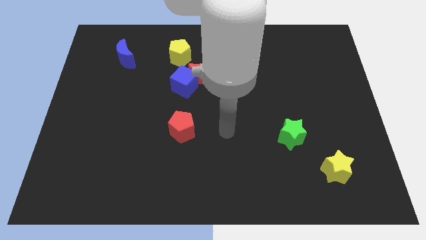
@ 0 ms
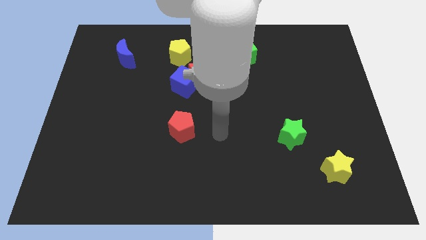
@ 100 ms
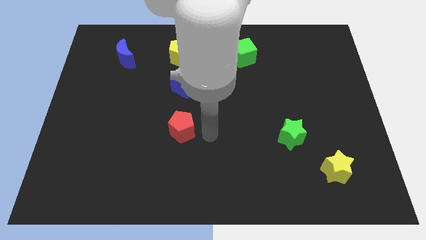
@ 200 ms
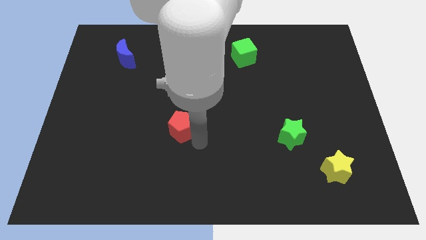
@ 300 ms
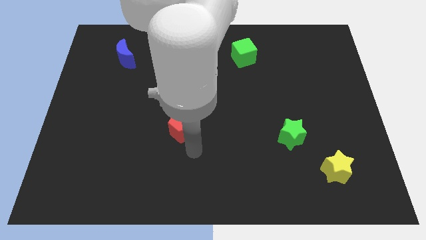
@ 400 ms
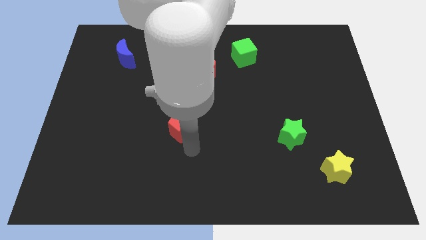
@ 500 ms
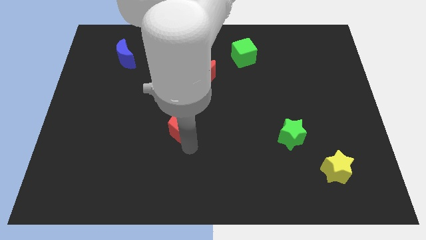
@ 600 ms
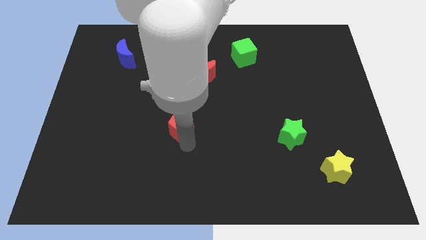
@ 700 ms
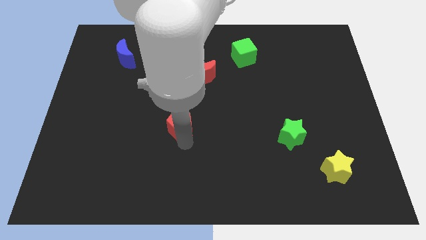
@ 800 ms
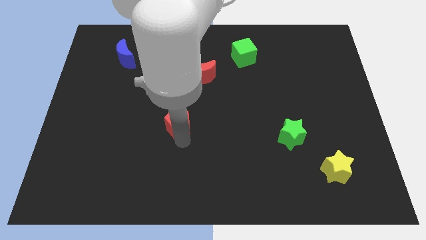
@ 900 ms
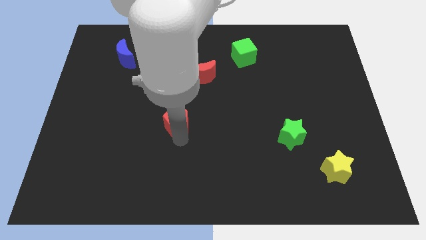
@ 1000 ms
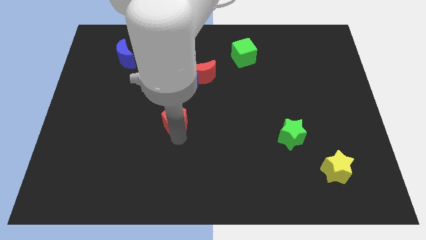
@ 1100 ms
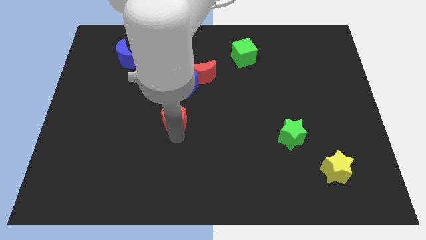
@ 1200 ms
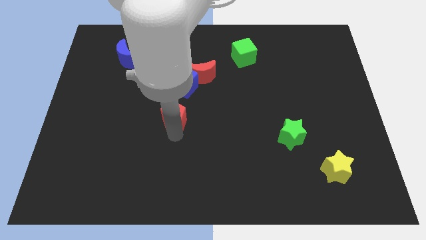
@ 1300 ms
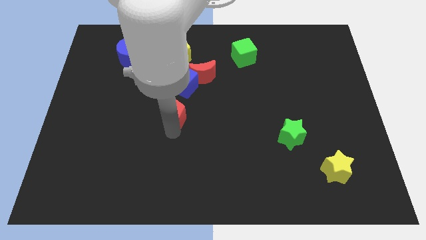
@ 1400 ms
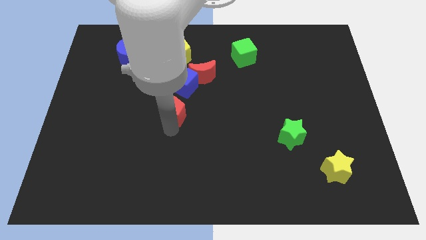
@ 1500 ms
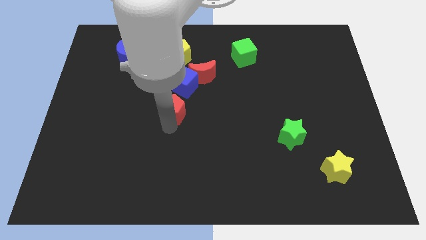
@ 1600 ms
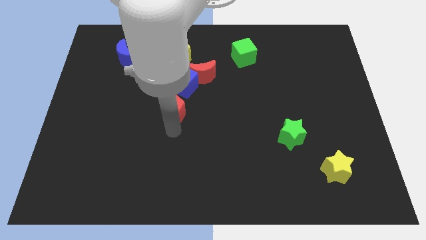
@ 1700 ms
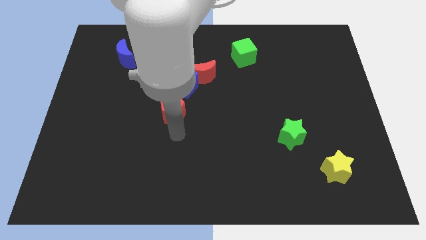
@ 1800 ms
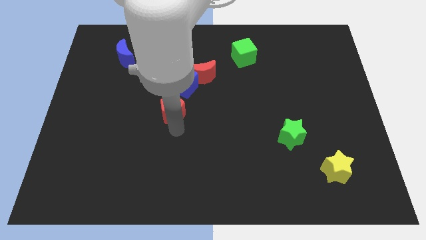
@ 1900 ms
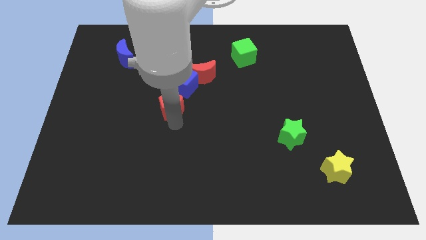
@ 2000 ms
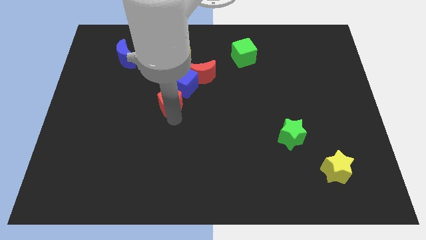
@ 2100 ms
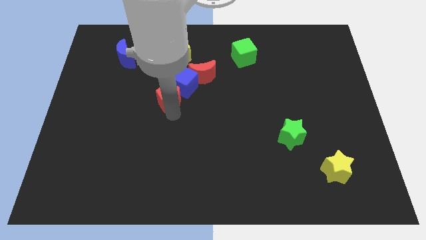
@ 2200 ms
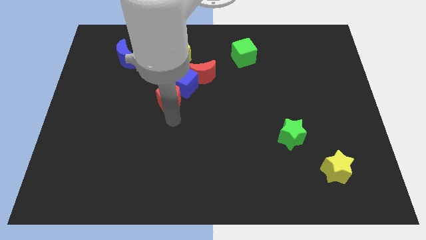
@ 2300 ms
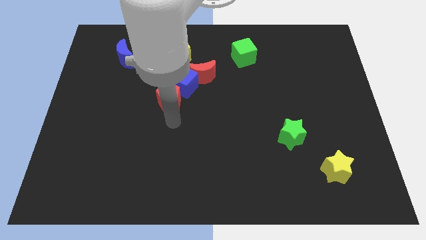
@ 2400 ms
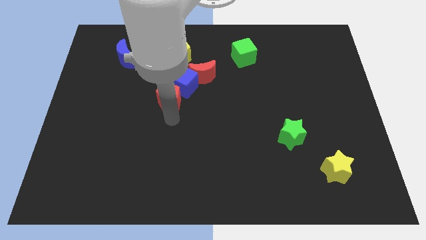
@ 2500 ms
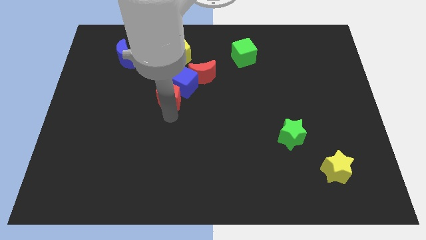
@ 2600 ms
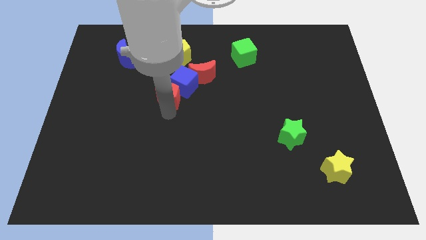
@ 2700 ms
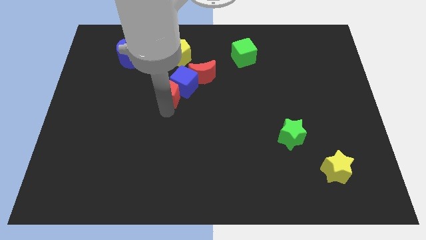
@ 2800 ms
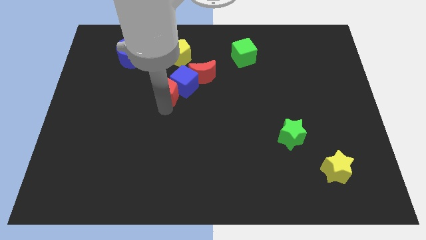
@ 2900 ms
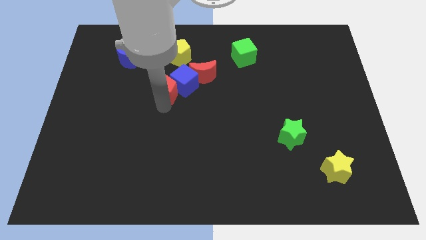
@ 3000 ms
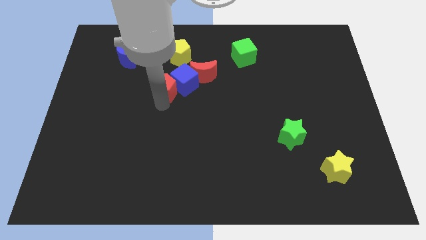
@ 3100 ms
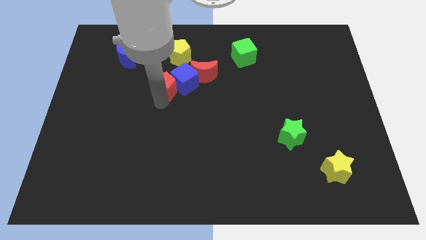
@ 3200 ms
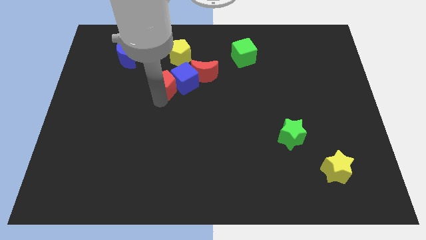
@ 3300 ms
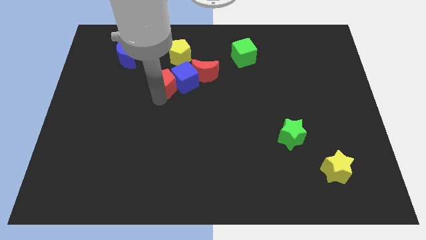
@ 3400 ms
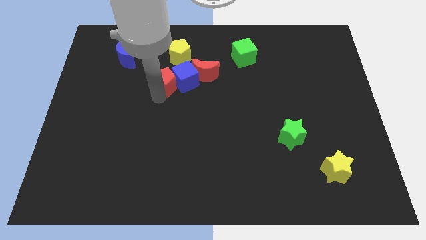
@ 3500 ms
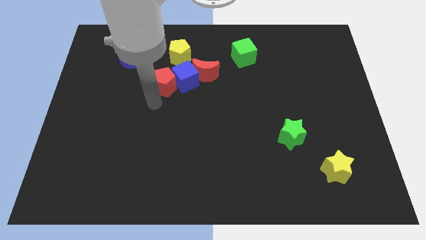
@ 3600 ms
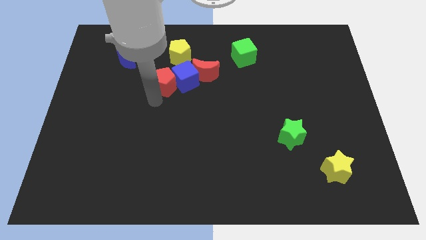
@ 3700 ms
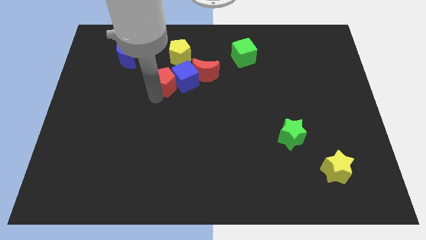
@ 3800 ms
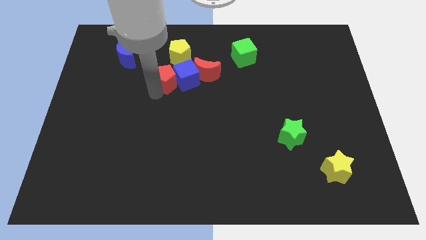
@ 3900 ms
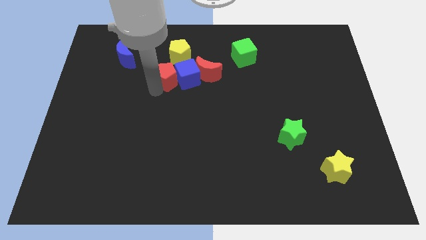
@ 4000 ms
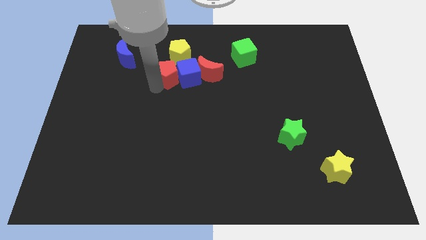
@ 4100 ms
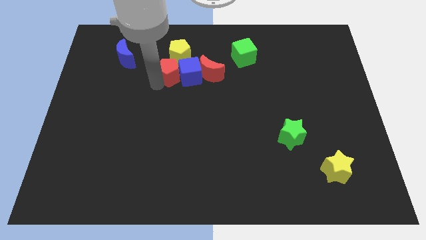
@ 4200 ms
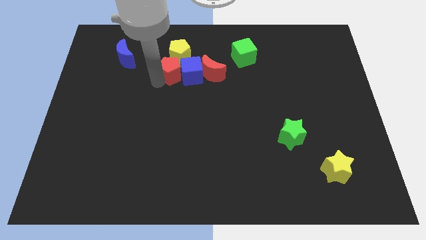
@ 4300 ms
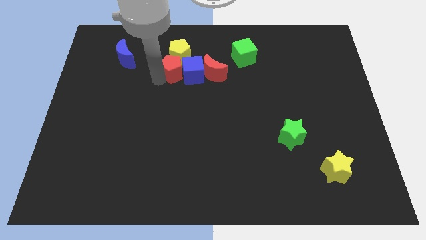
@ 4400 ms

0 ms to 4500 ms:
push the red pentagon to the yellow pentagon

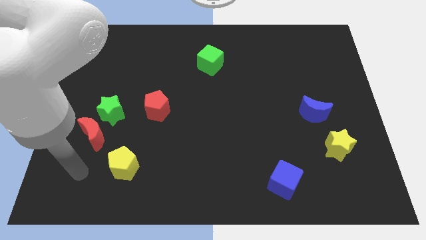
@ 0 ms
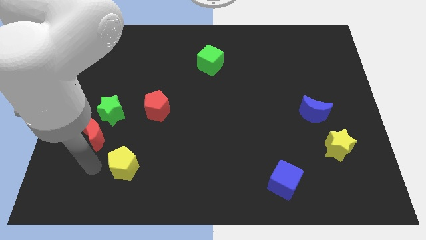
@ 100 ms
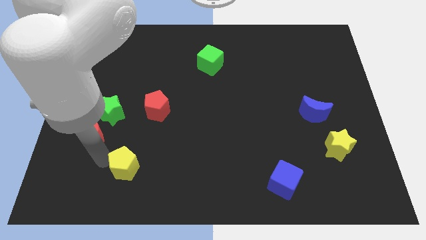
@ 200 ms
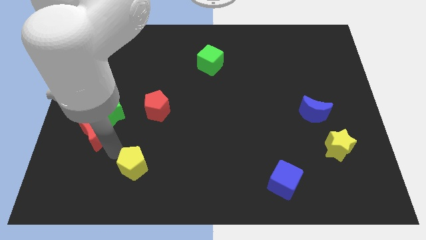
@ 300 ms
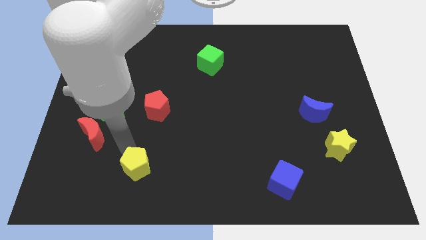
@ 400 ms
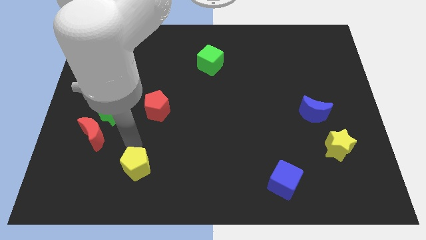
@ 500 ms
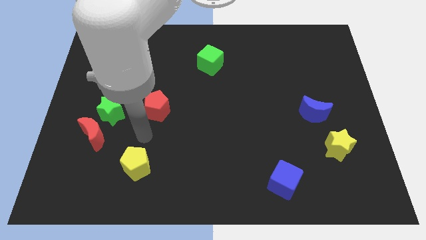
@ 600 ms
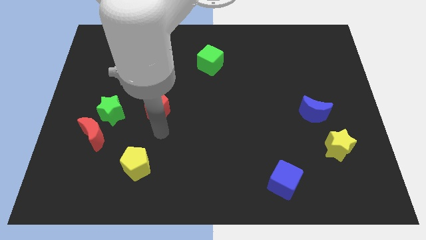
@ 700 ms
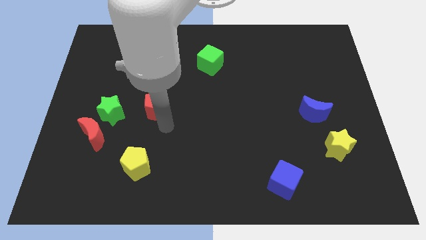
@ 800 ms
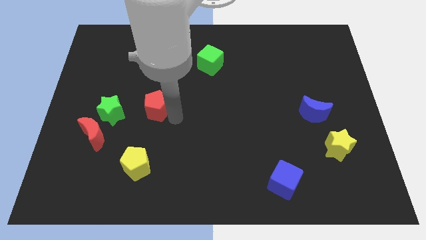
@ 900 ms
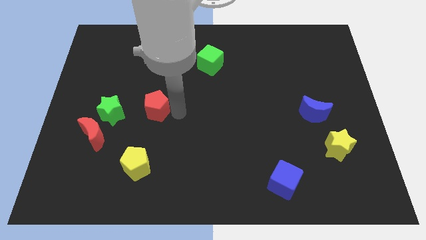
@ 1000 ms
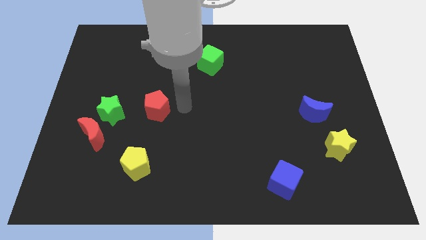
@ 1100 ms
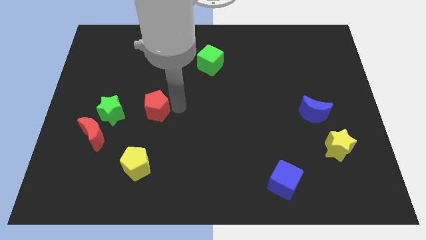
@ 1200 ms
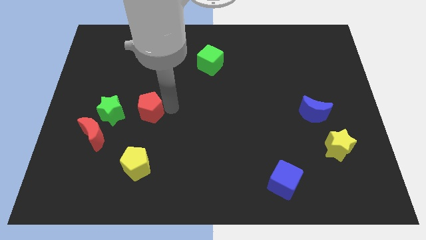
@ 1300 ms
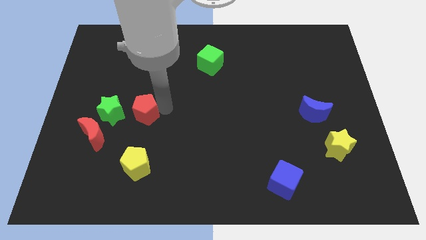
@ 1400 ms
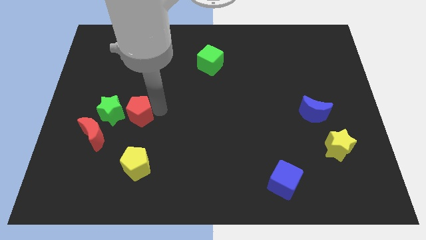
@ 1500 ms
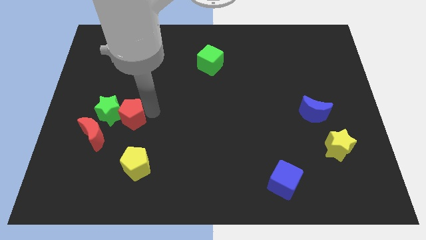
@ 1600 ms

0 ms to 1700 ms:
put the red pentagon to the green star

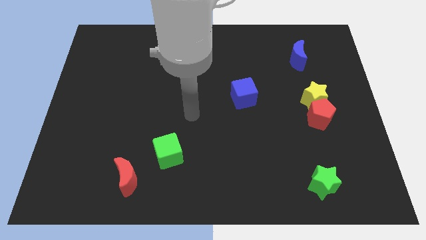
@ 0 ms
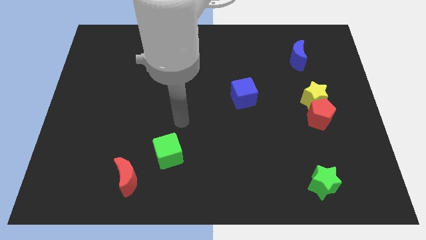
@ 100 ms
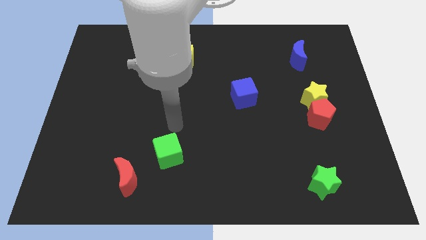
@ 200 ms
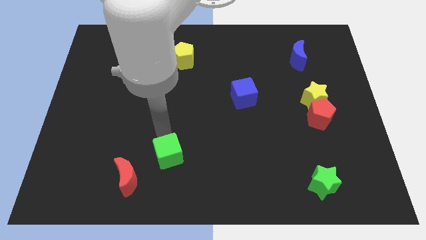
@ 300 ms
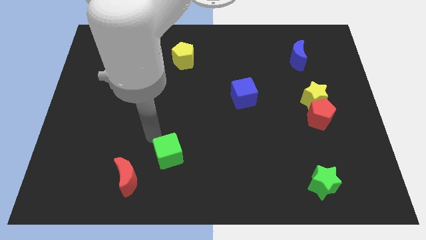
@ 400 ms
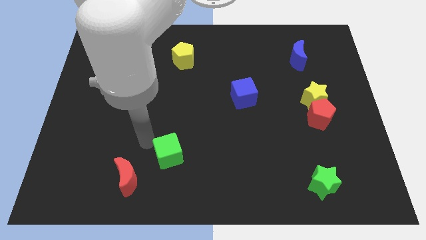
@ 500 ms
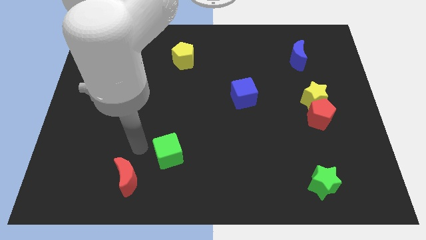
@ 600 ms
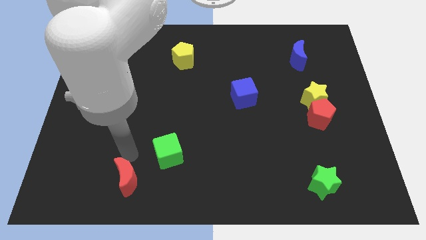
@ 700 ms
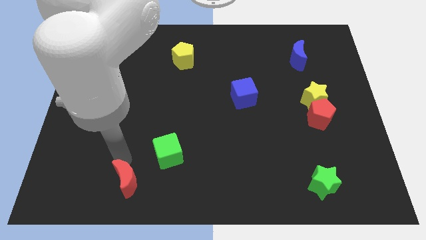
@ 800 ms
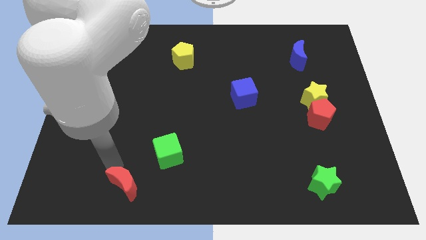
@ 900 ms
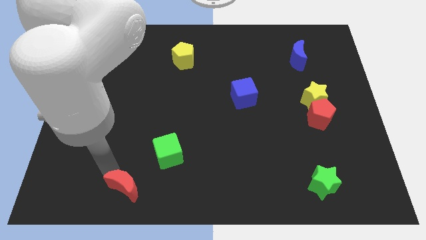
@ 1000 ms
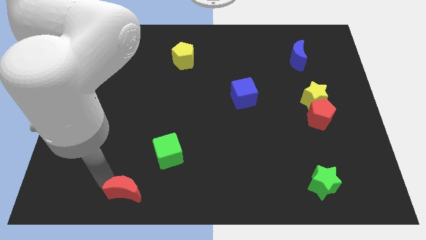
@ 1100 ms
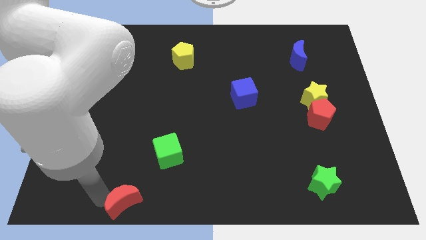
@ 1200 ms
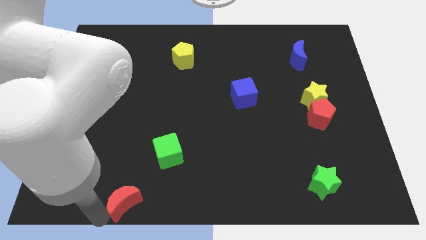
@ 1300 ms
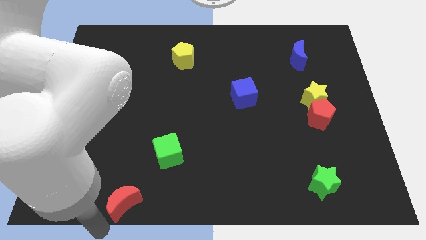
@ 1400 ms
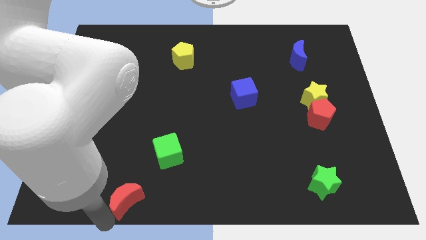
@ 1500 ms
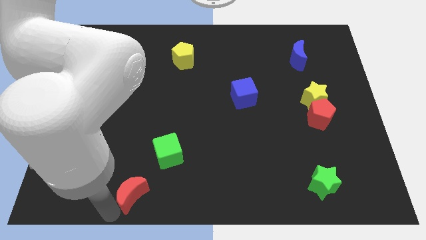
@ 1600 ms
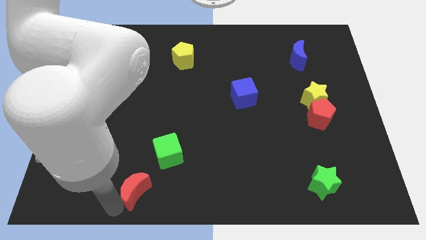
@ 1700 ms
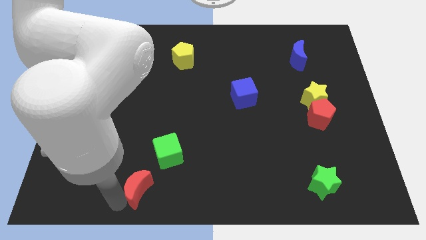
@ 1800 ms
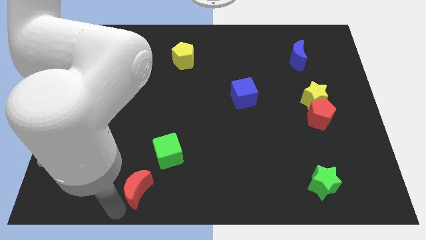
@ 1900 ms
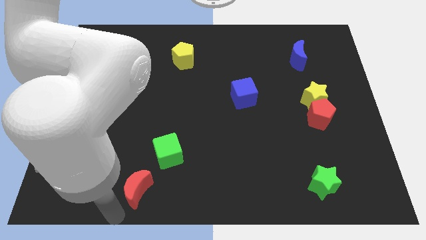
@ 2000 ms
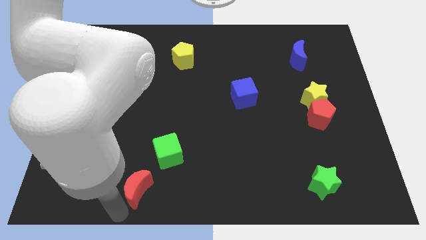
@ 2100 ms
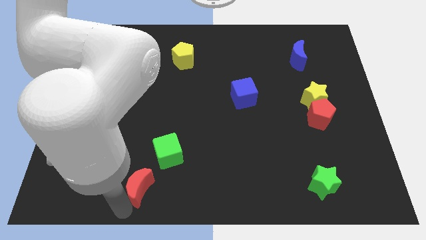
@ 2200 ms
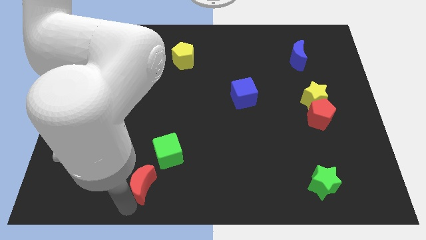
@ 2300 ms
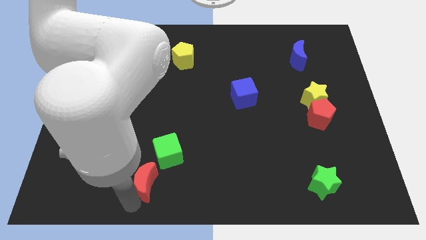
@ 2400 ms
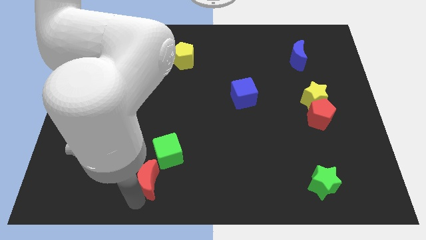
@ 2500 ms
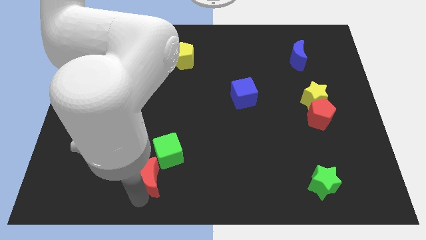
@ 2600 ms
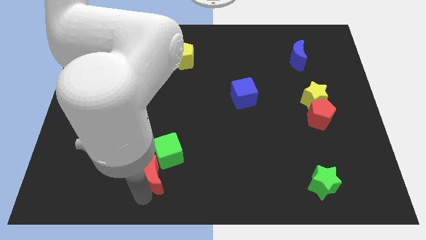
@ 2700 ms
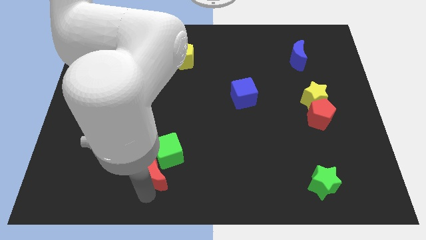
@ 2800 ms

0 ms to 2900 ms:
put the red moon close to the green cube
